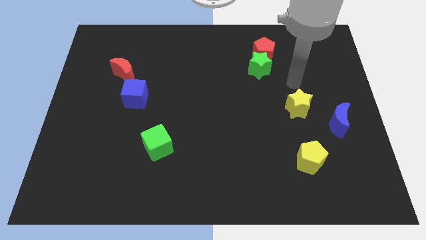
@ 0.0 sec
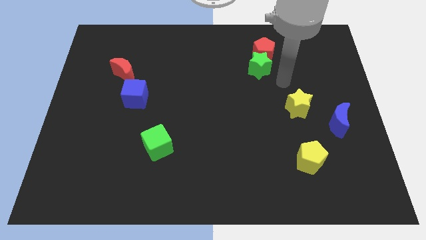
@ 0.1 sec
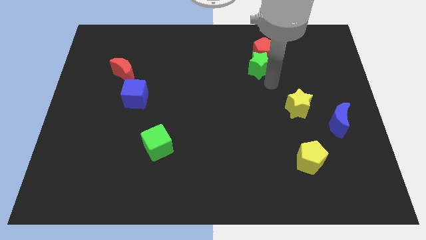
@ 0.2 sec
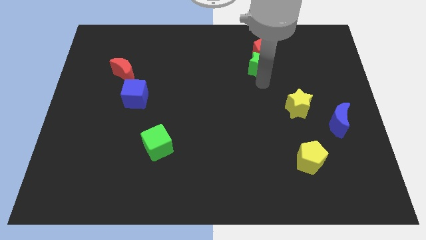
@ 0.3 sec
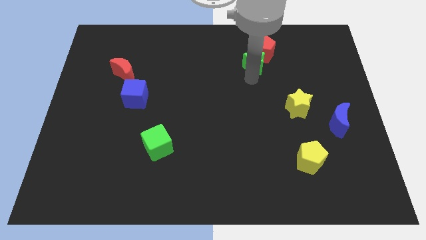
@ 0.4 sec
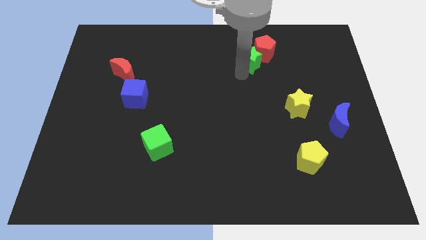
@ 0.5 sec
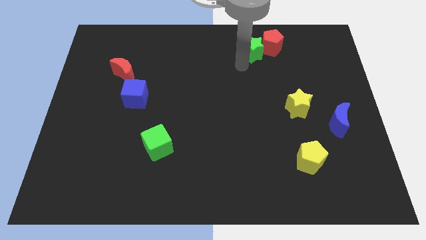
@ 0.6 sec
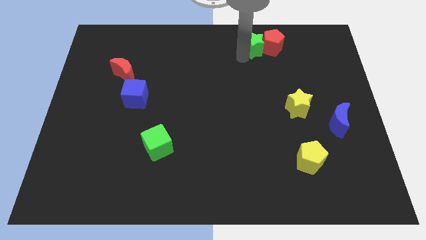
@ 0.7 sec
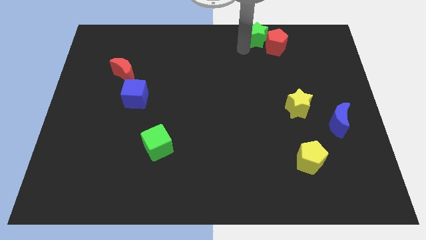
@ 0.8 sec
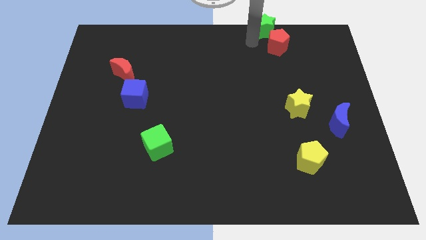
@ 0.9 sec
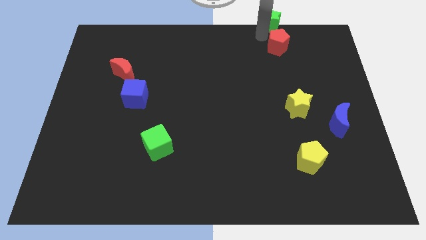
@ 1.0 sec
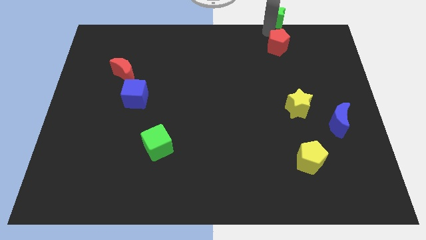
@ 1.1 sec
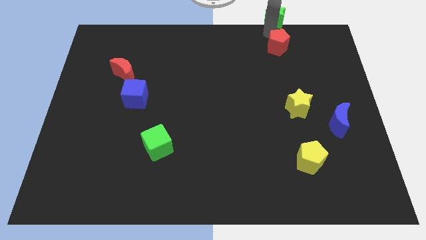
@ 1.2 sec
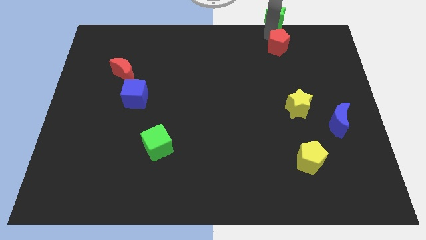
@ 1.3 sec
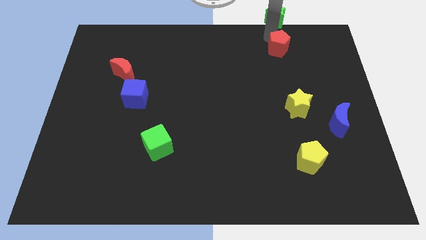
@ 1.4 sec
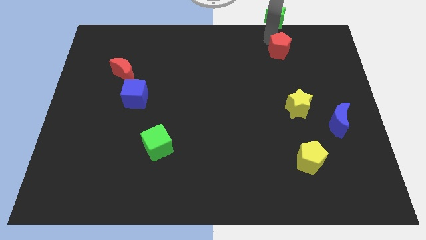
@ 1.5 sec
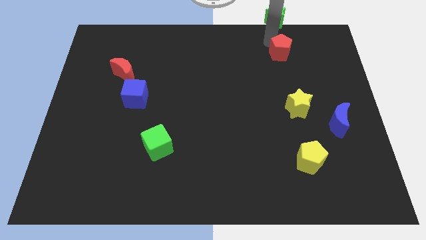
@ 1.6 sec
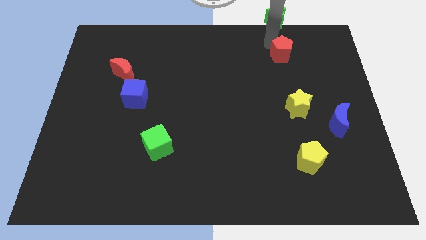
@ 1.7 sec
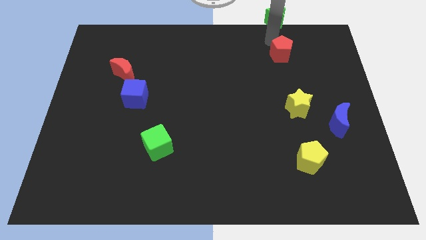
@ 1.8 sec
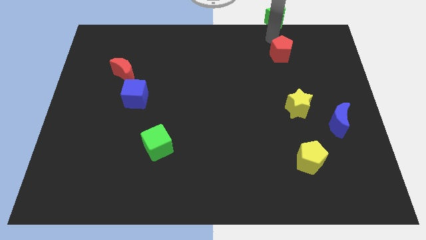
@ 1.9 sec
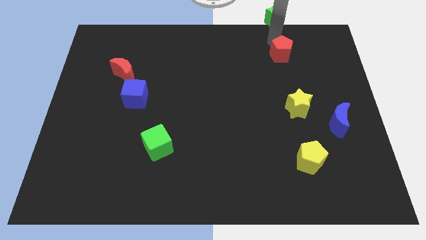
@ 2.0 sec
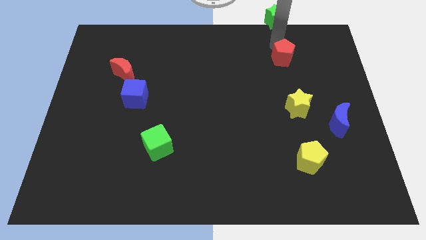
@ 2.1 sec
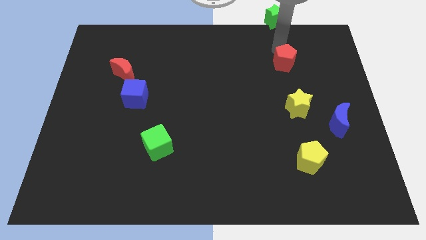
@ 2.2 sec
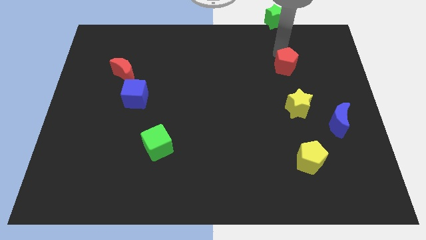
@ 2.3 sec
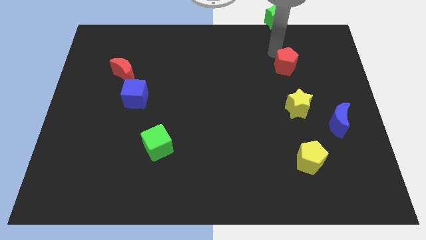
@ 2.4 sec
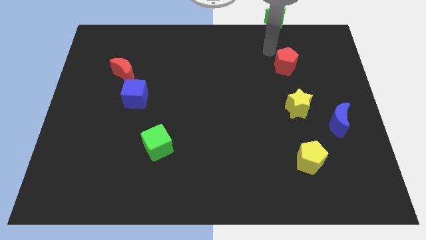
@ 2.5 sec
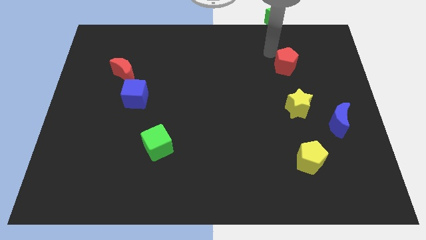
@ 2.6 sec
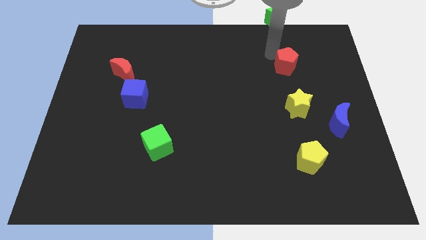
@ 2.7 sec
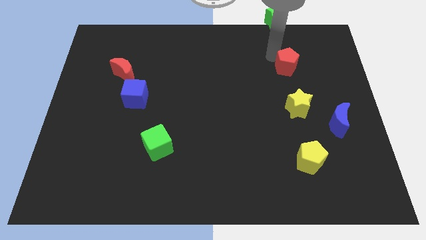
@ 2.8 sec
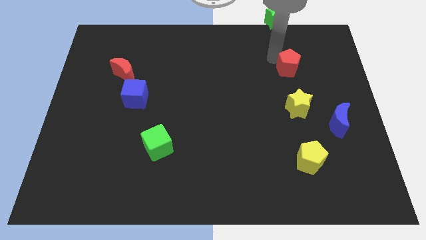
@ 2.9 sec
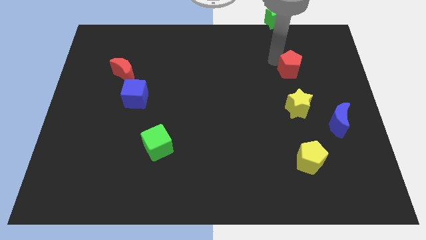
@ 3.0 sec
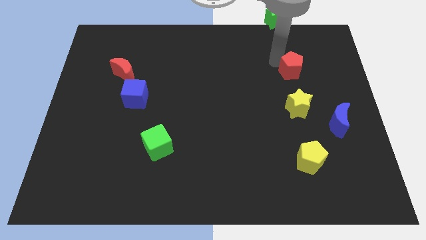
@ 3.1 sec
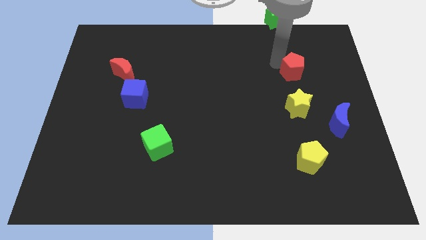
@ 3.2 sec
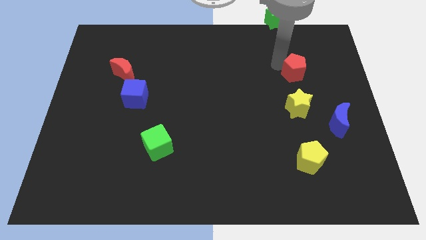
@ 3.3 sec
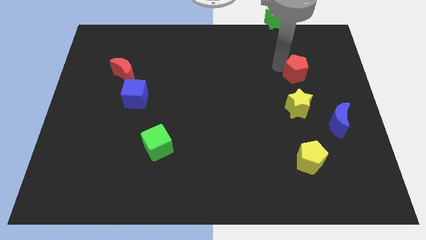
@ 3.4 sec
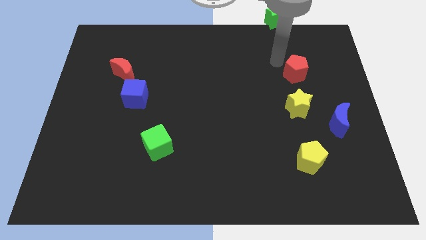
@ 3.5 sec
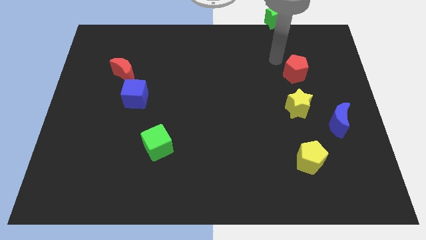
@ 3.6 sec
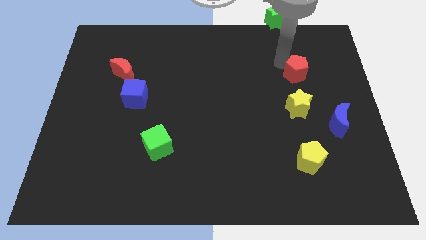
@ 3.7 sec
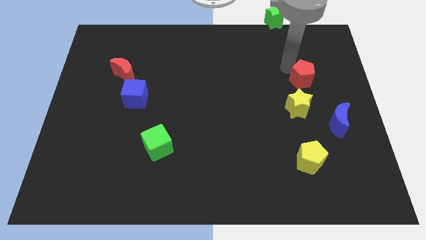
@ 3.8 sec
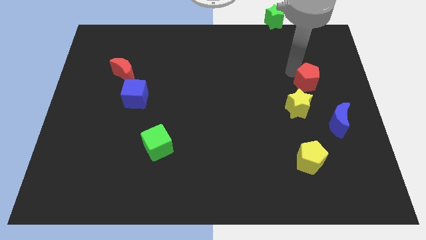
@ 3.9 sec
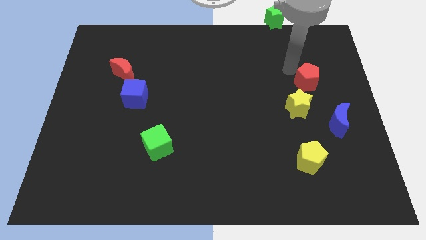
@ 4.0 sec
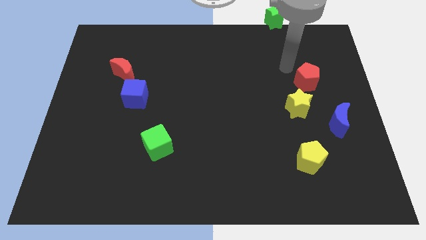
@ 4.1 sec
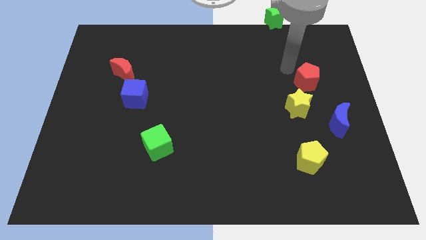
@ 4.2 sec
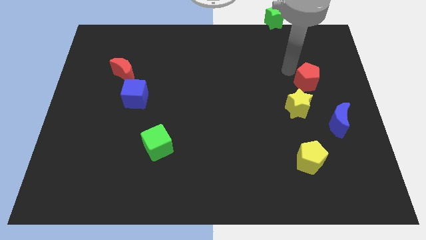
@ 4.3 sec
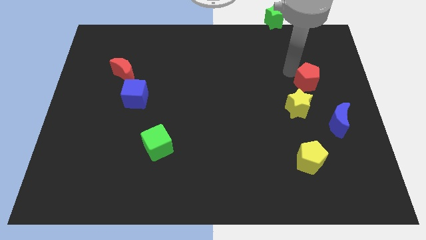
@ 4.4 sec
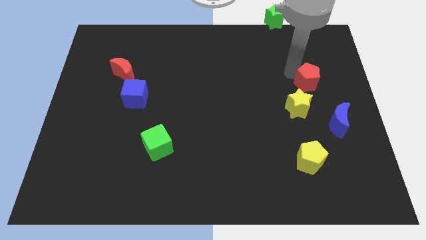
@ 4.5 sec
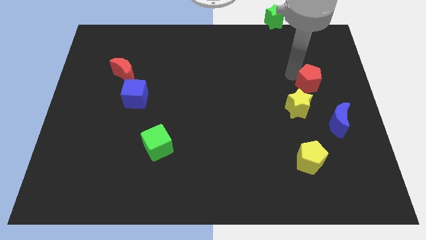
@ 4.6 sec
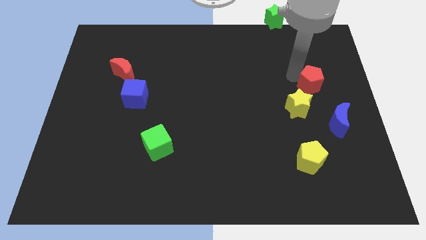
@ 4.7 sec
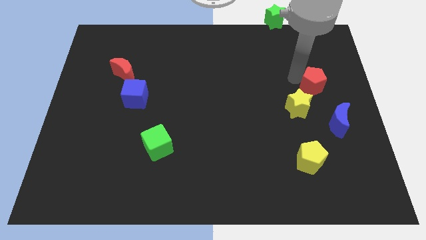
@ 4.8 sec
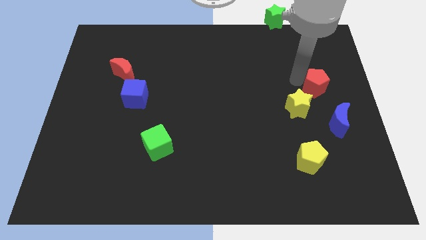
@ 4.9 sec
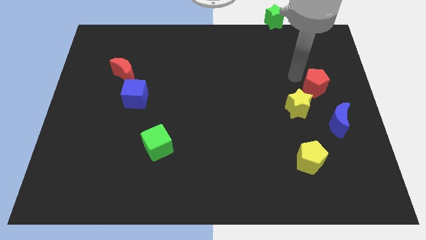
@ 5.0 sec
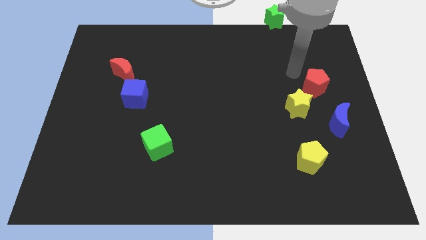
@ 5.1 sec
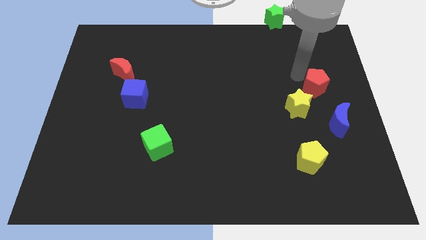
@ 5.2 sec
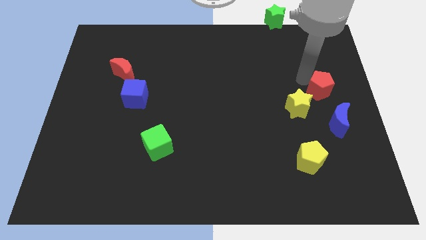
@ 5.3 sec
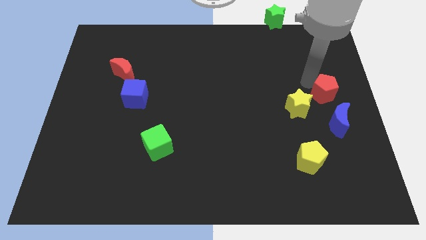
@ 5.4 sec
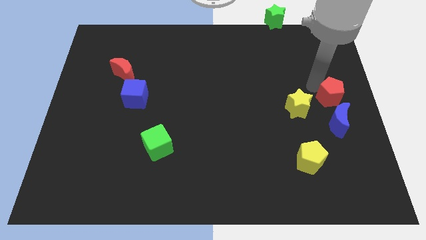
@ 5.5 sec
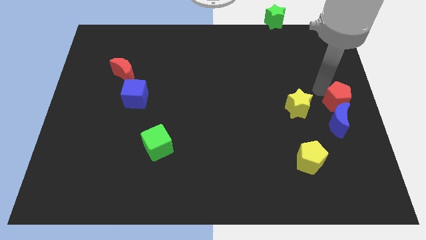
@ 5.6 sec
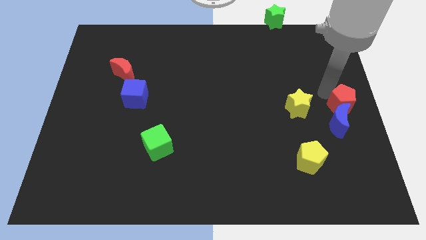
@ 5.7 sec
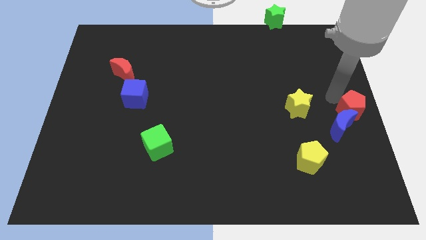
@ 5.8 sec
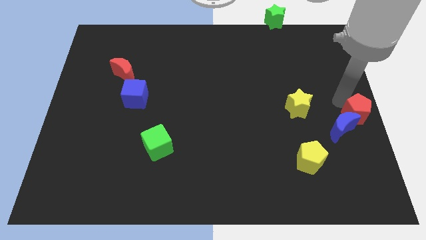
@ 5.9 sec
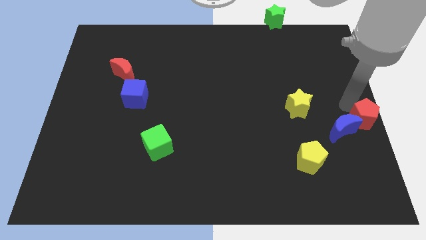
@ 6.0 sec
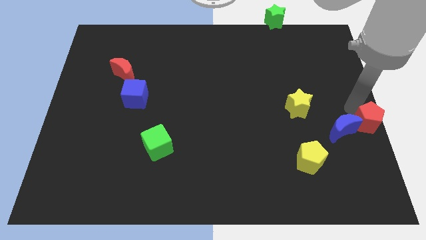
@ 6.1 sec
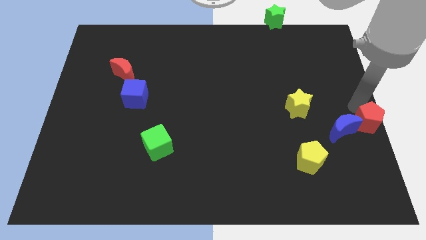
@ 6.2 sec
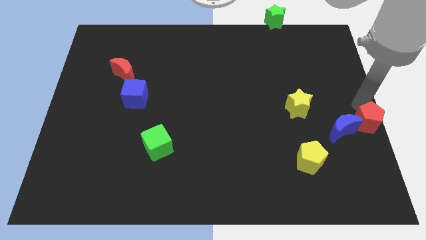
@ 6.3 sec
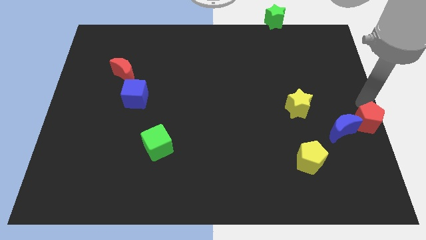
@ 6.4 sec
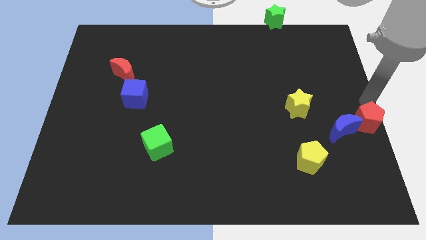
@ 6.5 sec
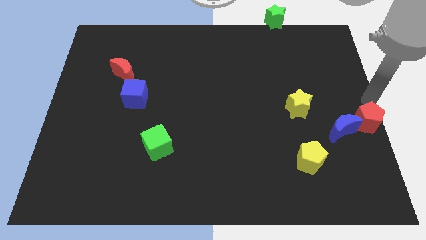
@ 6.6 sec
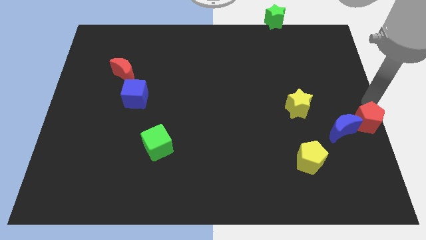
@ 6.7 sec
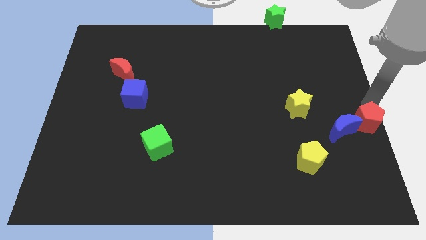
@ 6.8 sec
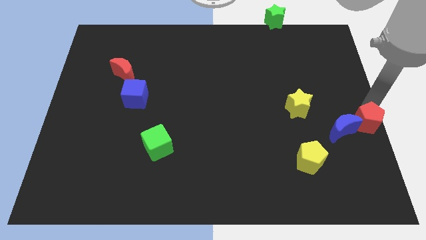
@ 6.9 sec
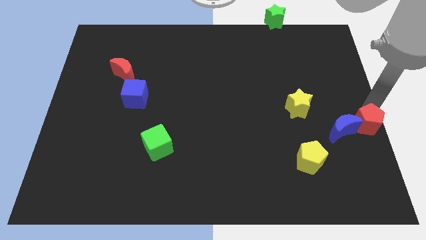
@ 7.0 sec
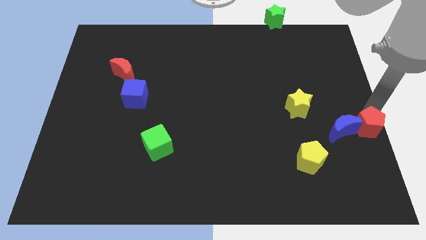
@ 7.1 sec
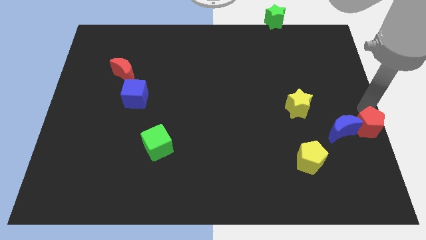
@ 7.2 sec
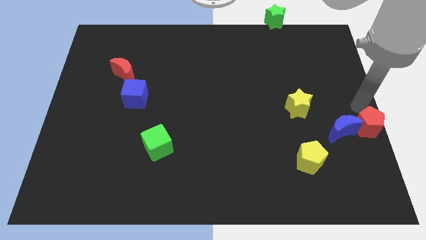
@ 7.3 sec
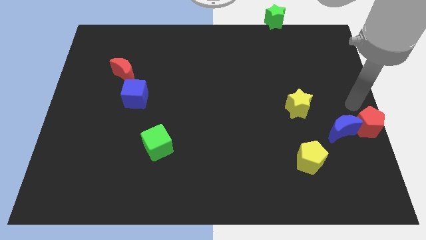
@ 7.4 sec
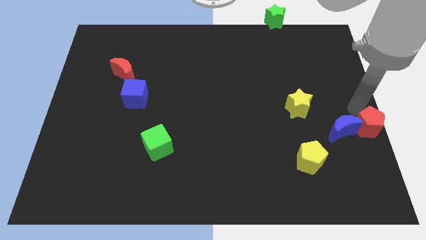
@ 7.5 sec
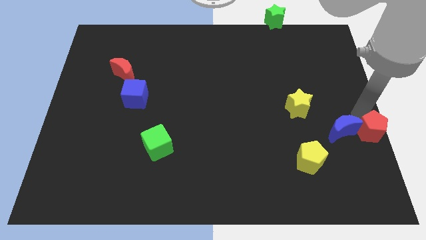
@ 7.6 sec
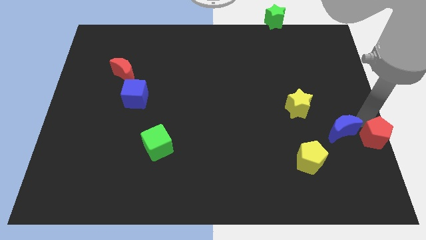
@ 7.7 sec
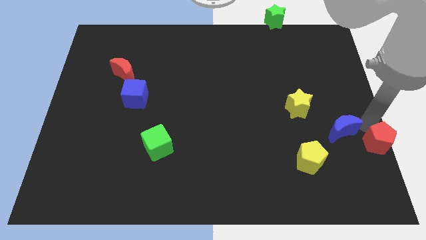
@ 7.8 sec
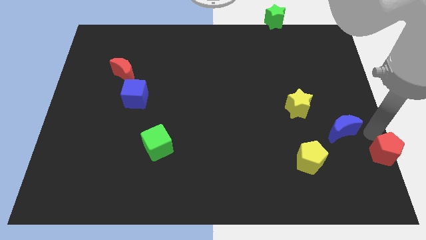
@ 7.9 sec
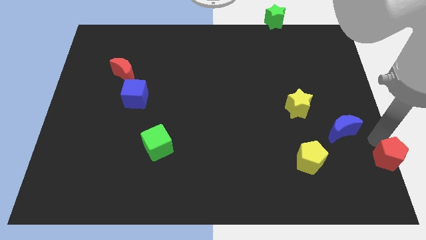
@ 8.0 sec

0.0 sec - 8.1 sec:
move the red pentagon to the bottom right corner
